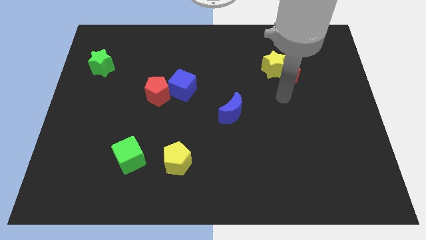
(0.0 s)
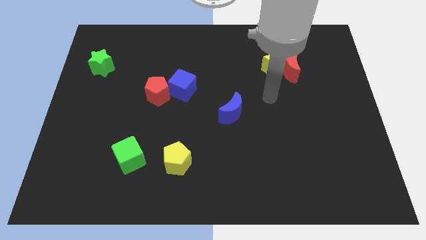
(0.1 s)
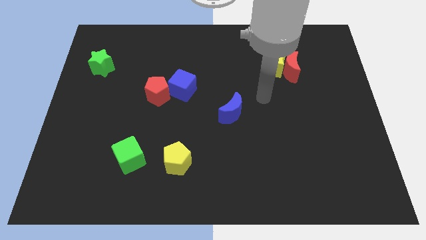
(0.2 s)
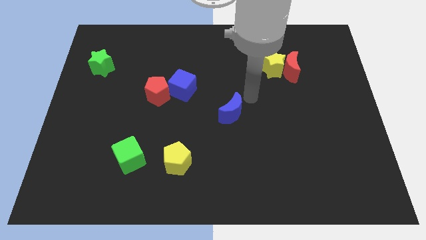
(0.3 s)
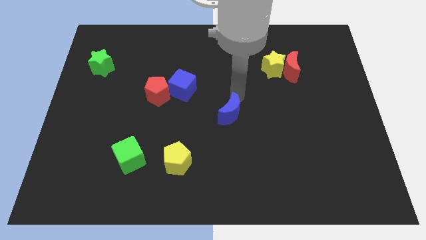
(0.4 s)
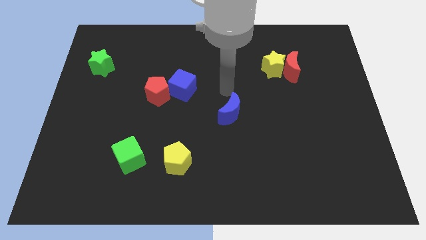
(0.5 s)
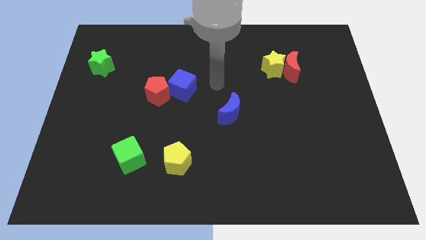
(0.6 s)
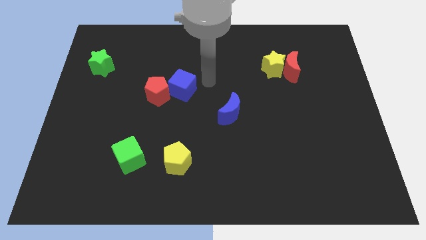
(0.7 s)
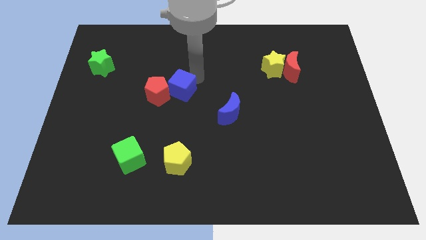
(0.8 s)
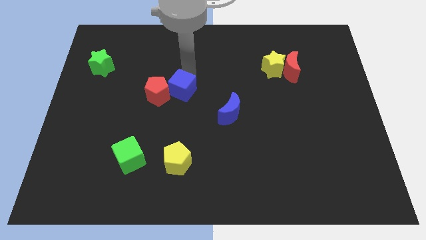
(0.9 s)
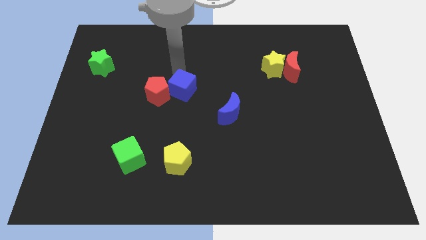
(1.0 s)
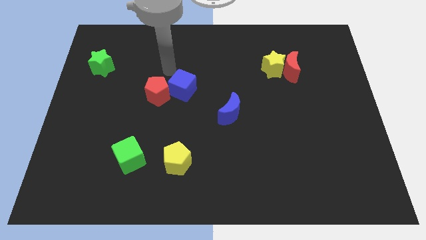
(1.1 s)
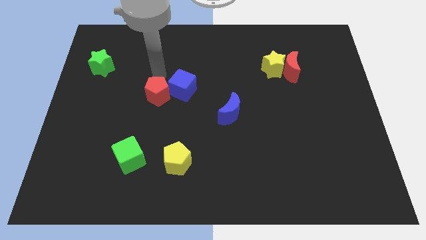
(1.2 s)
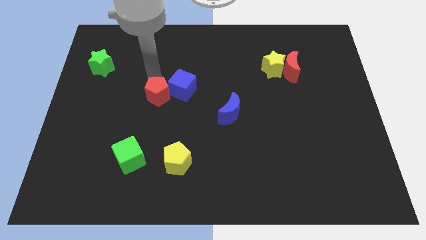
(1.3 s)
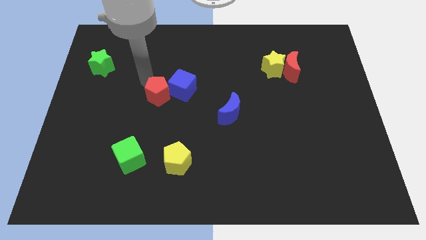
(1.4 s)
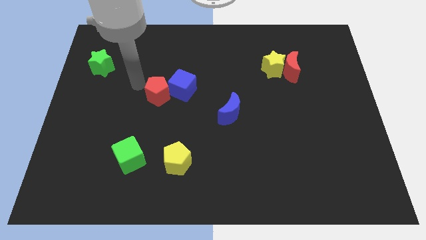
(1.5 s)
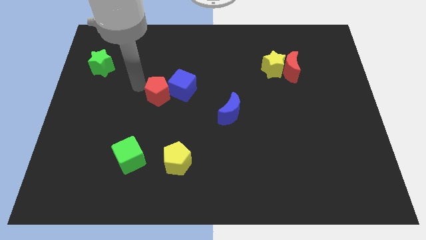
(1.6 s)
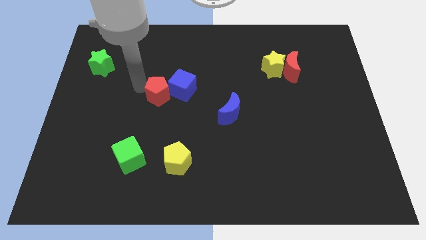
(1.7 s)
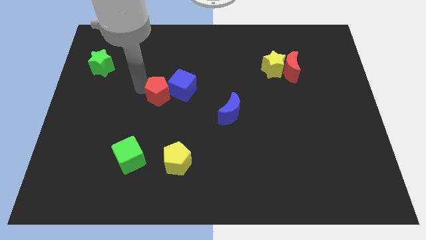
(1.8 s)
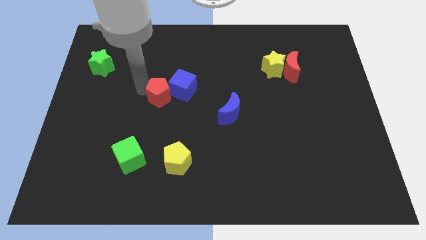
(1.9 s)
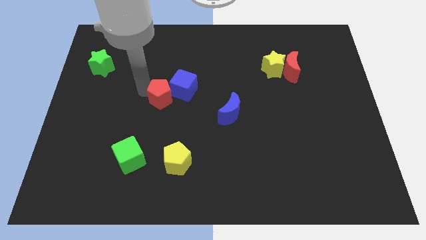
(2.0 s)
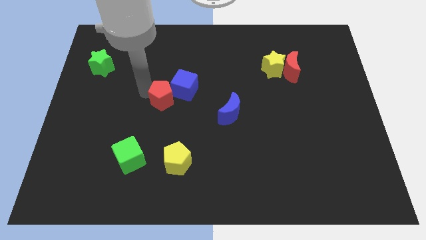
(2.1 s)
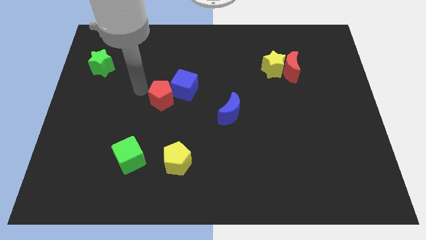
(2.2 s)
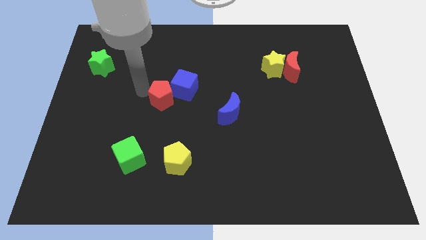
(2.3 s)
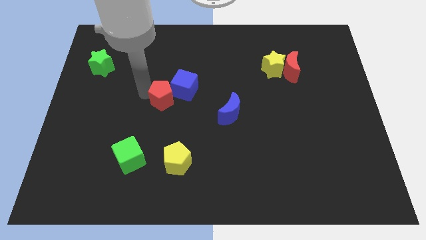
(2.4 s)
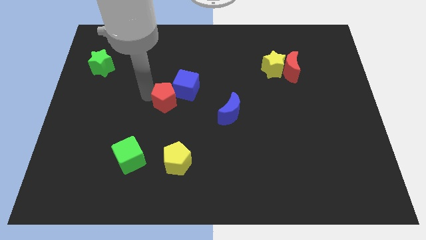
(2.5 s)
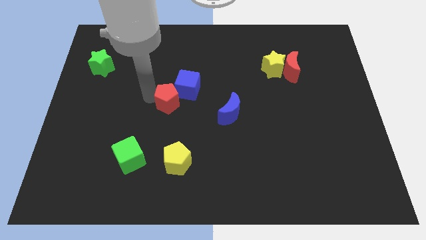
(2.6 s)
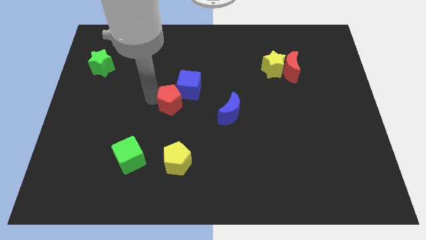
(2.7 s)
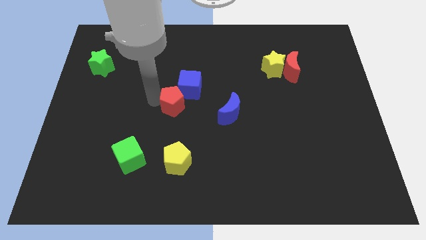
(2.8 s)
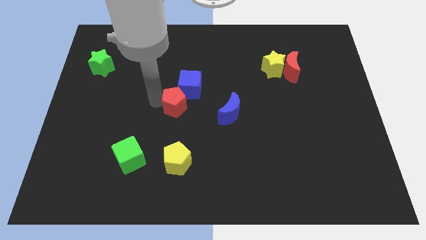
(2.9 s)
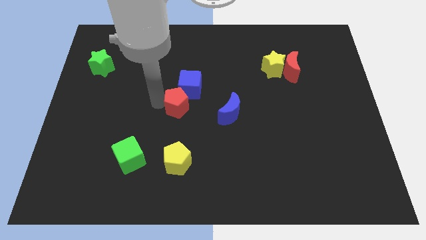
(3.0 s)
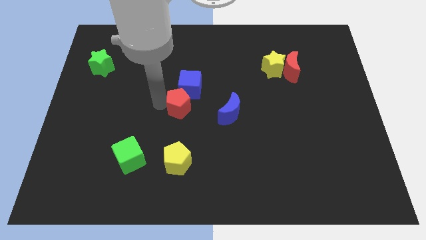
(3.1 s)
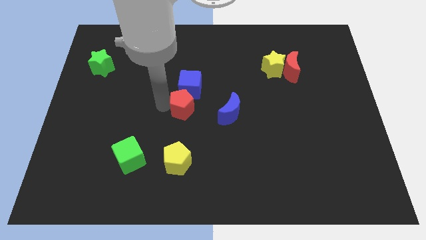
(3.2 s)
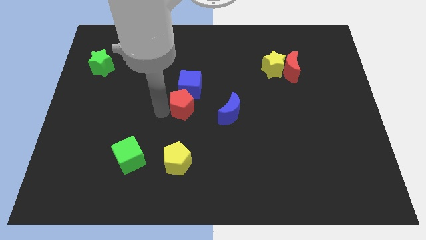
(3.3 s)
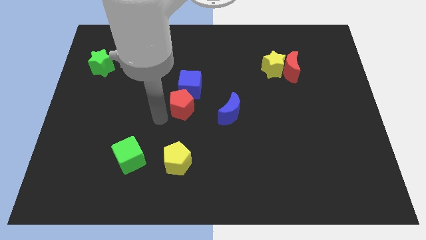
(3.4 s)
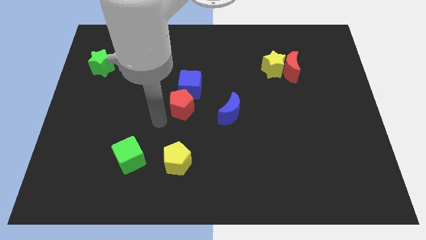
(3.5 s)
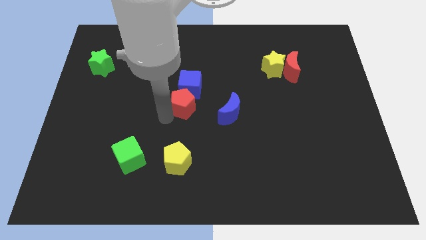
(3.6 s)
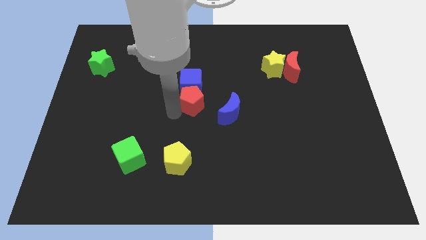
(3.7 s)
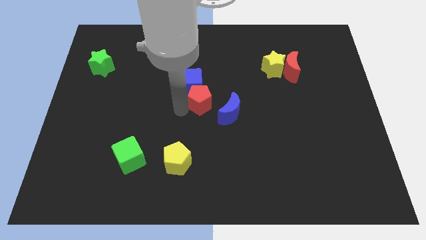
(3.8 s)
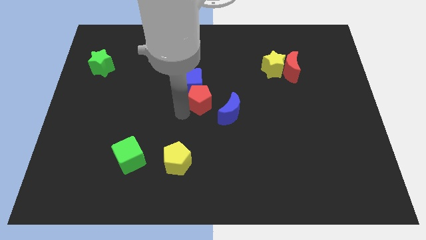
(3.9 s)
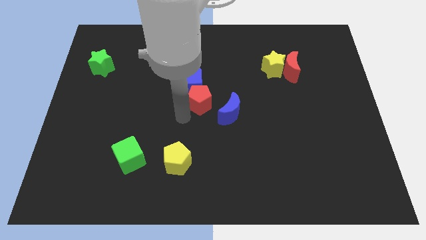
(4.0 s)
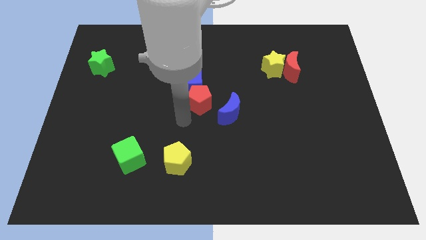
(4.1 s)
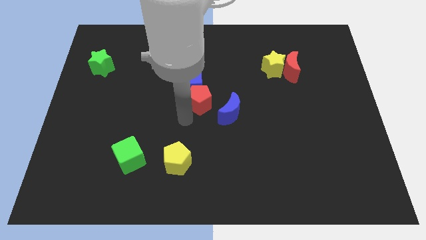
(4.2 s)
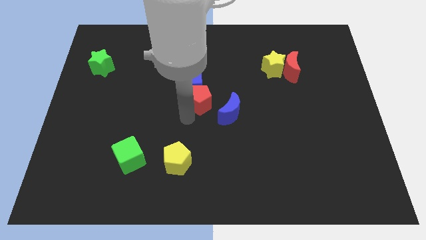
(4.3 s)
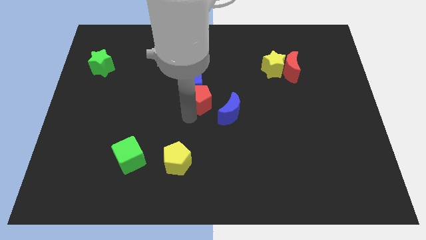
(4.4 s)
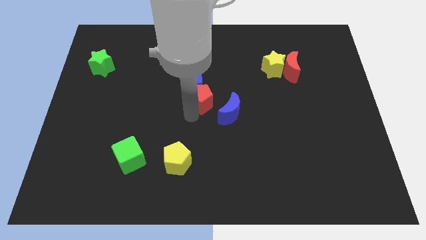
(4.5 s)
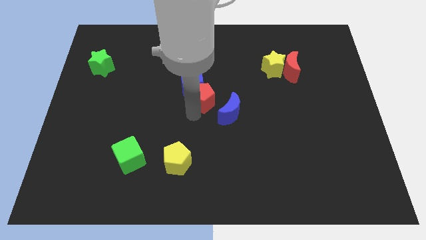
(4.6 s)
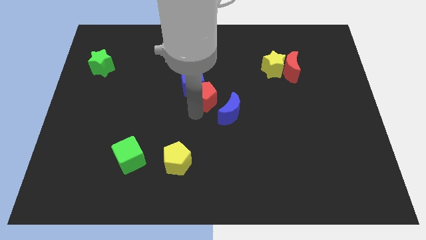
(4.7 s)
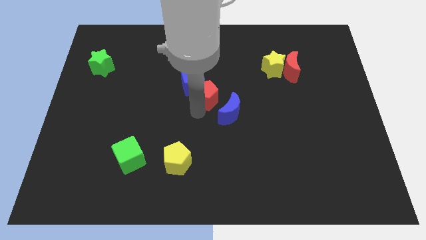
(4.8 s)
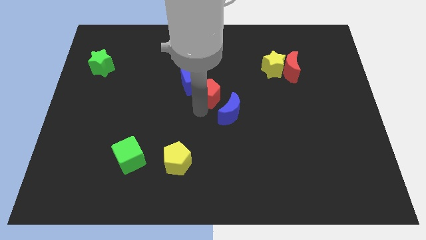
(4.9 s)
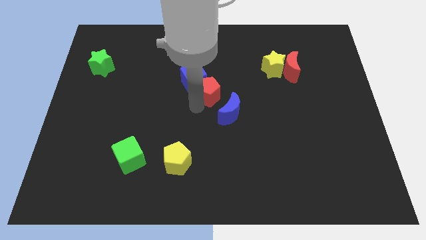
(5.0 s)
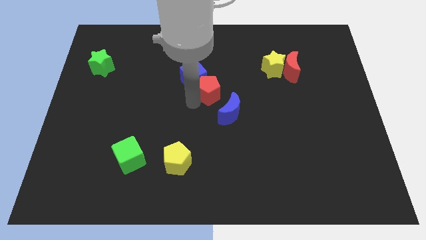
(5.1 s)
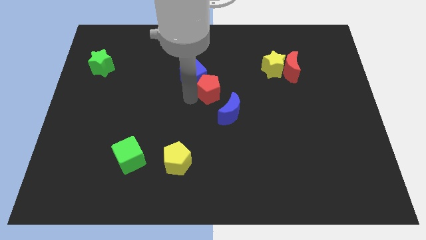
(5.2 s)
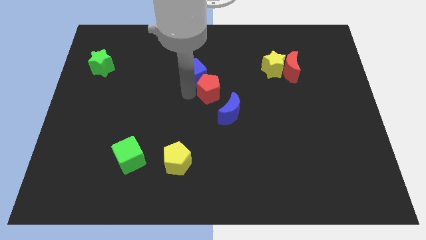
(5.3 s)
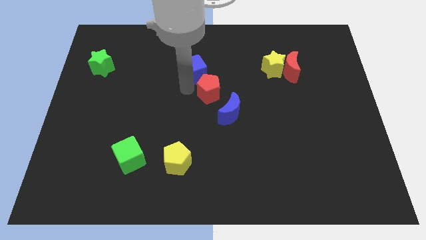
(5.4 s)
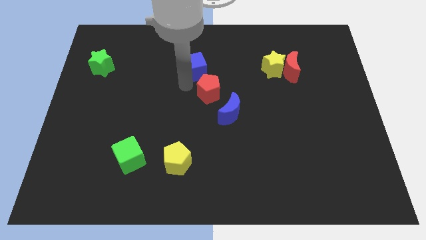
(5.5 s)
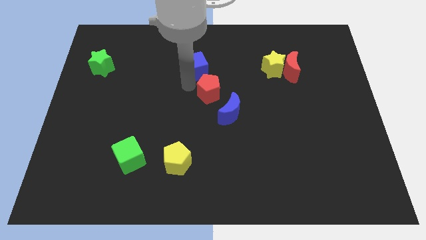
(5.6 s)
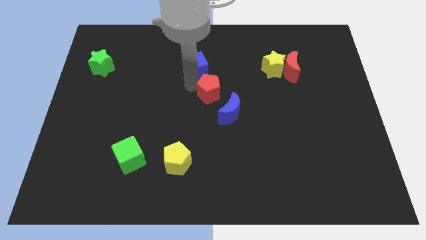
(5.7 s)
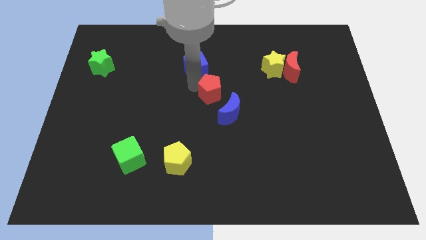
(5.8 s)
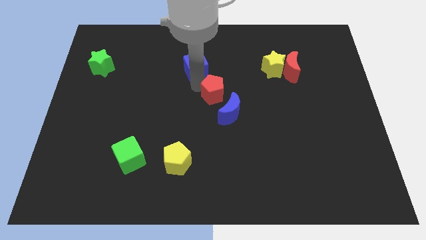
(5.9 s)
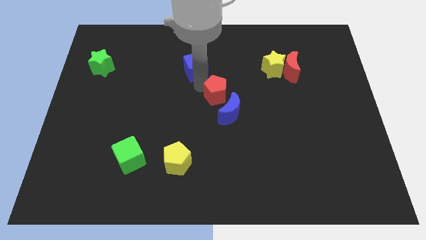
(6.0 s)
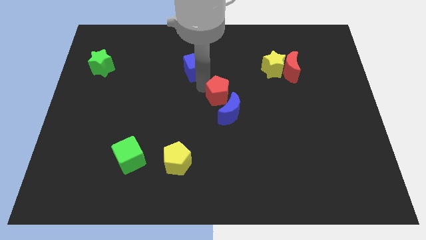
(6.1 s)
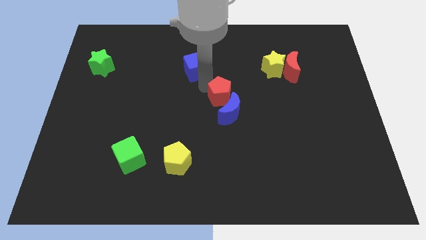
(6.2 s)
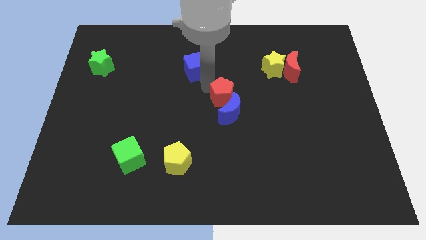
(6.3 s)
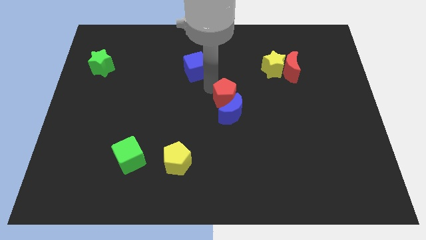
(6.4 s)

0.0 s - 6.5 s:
slide the red pentagon to the top right of the blue moon
